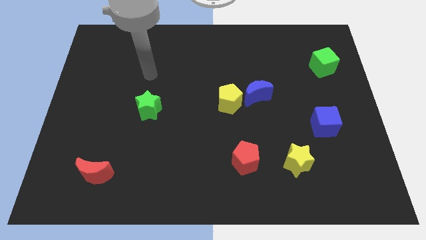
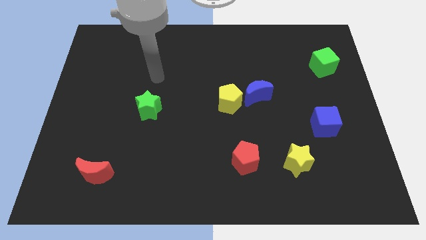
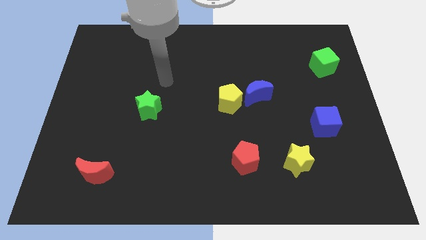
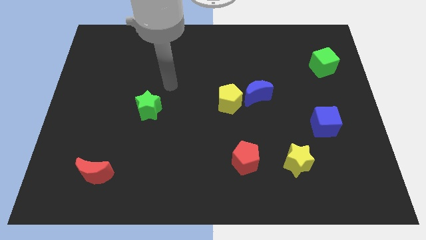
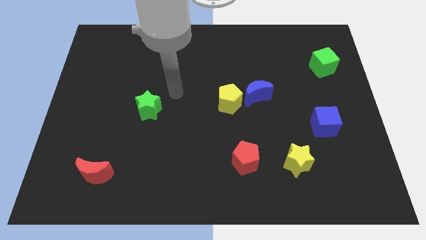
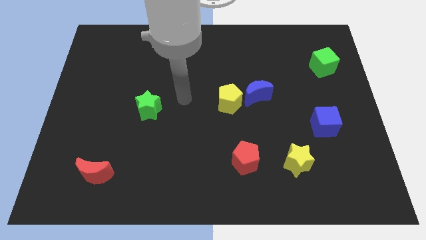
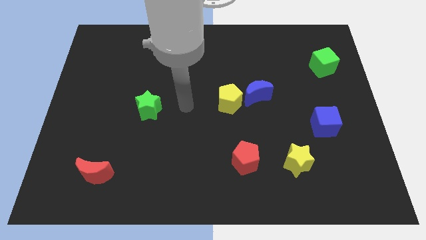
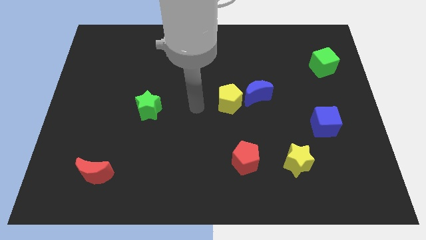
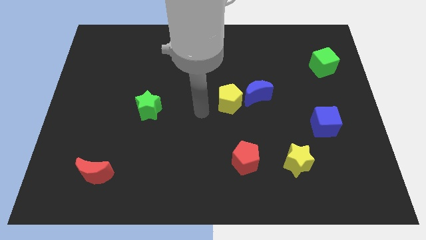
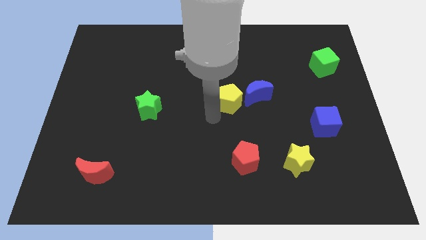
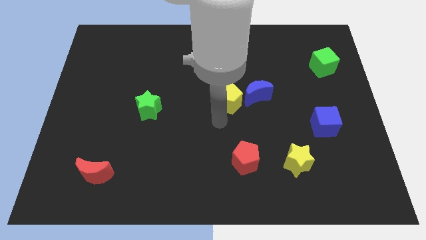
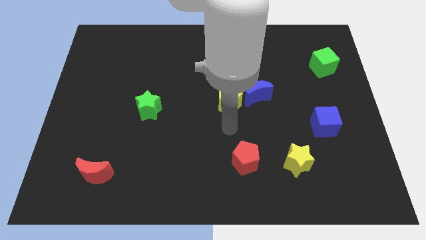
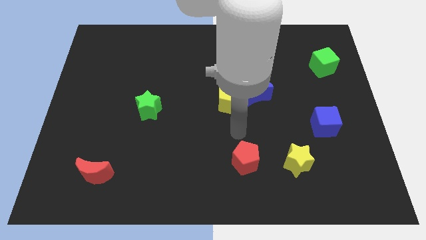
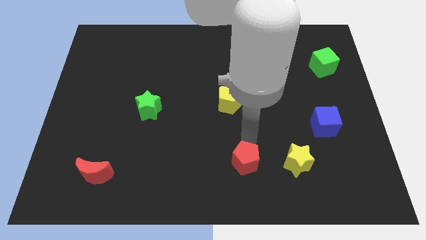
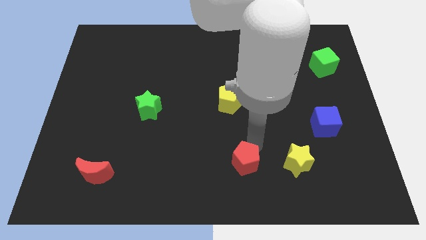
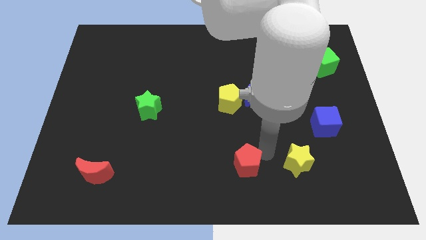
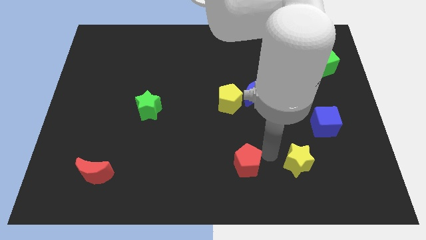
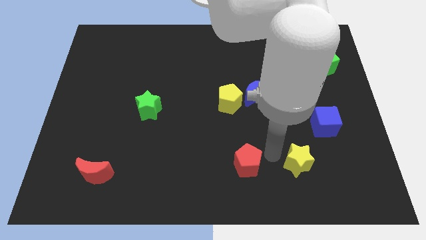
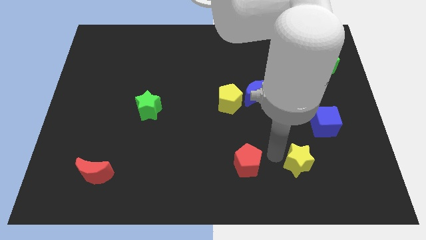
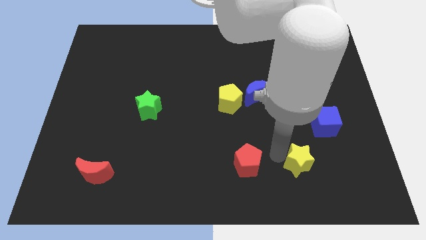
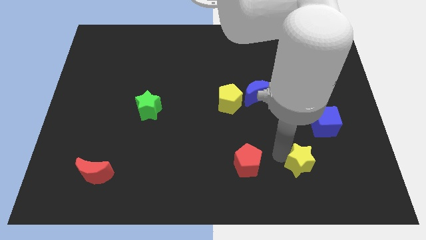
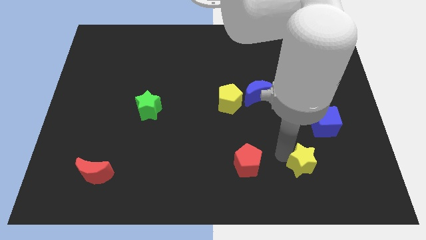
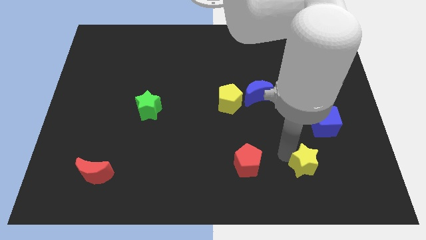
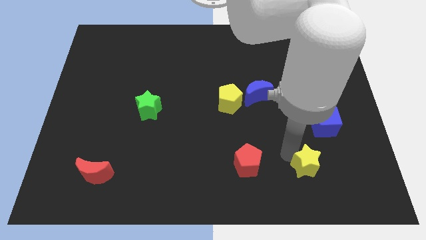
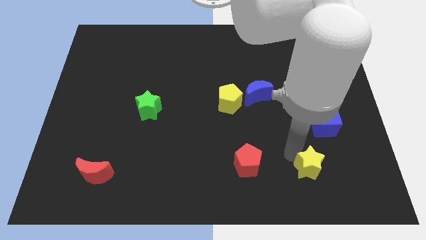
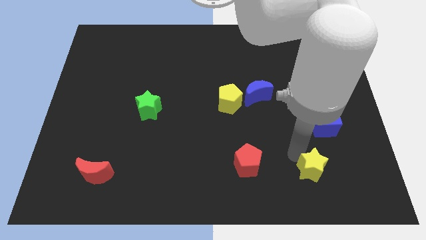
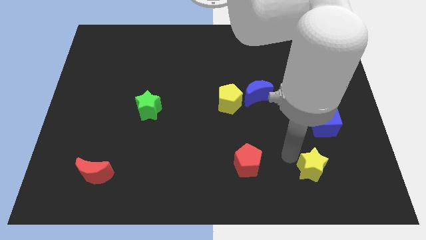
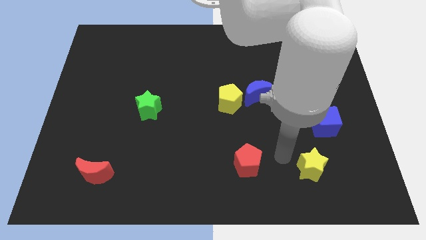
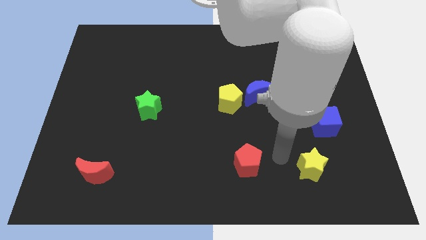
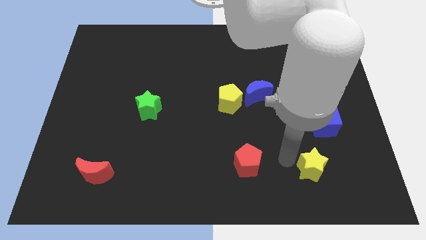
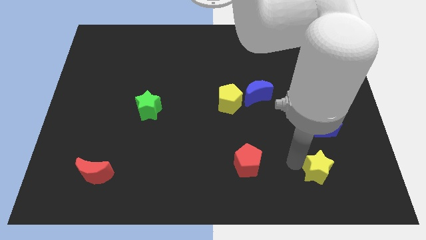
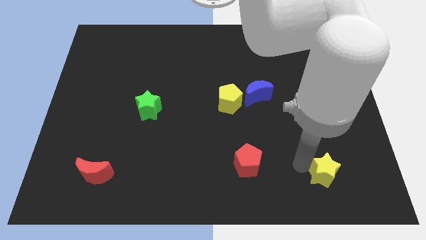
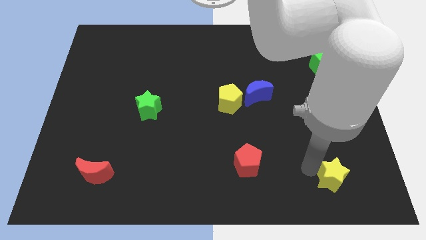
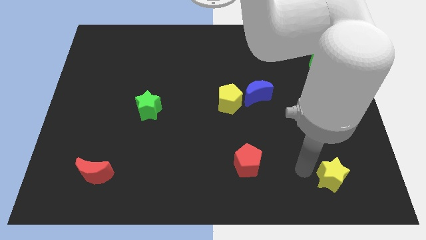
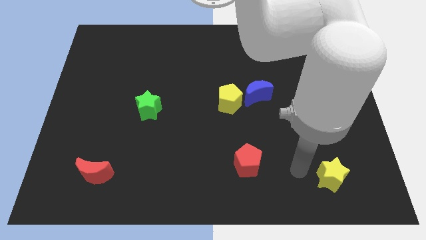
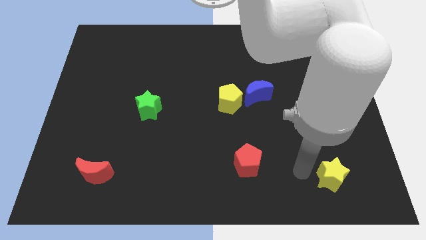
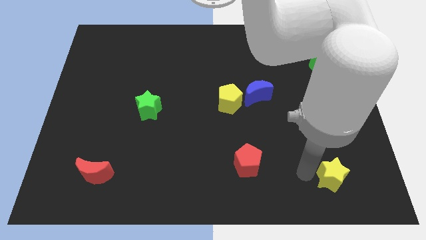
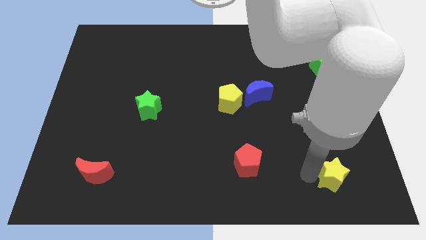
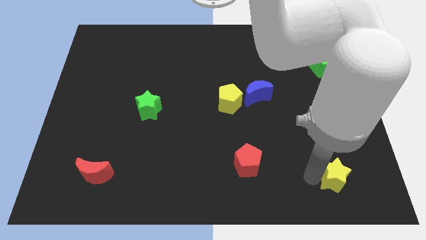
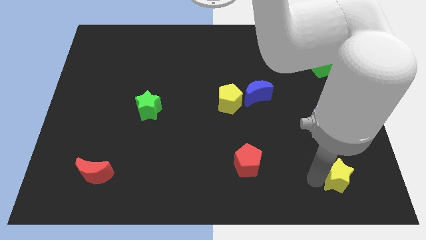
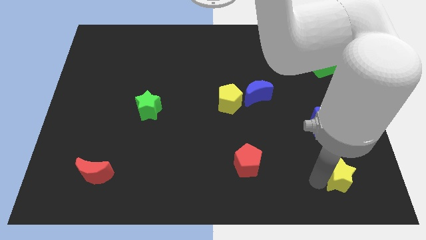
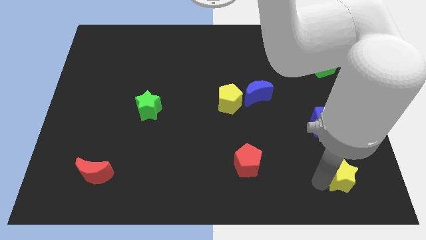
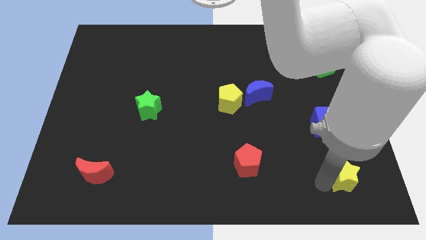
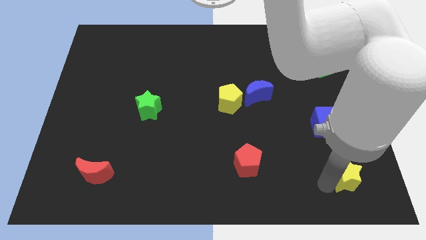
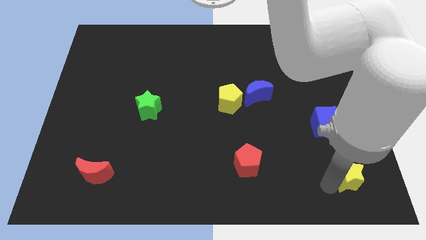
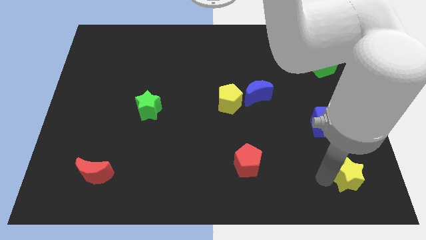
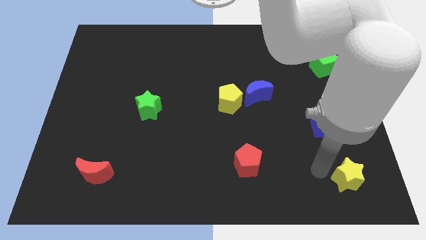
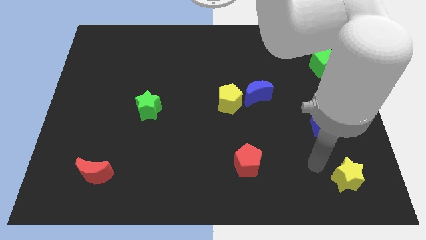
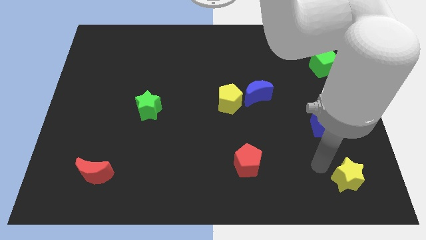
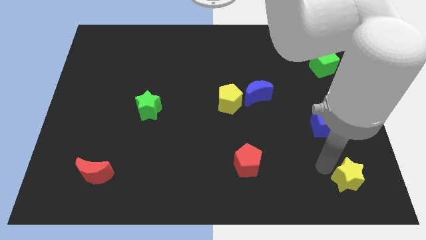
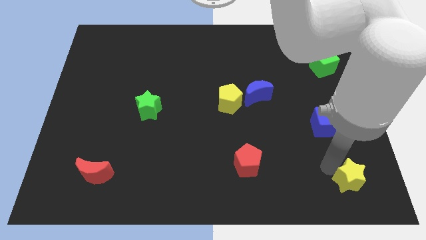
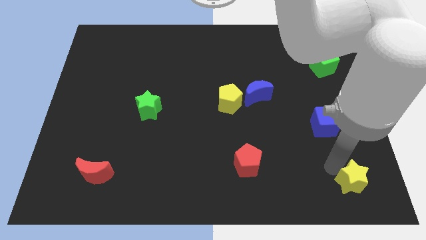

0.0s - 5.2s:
put the yellow star to the lower right corner

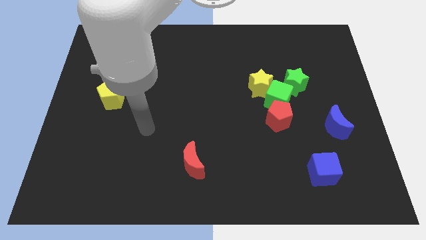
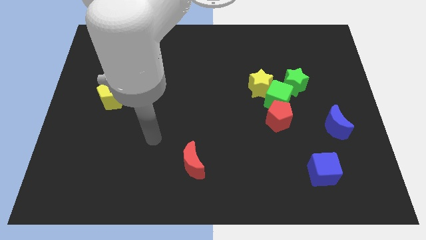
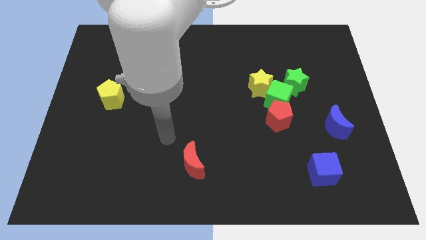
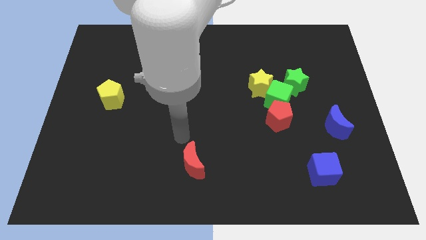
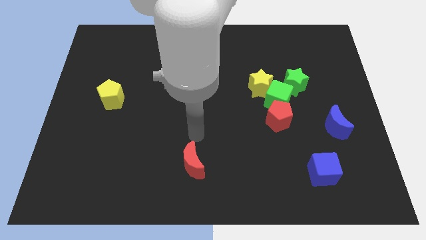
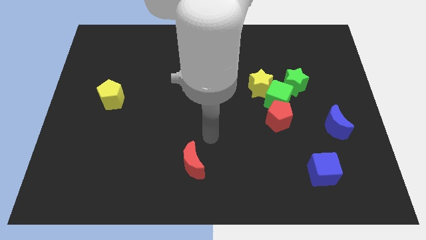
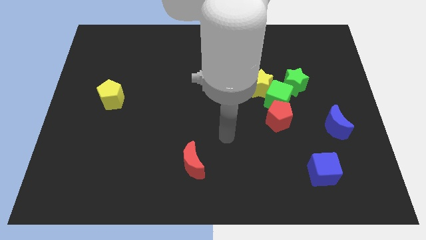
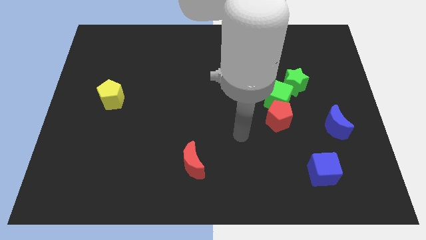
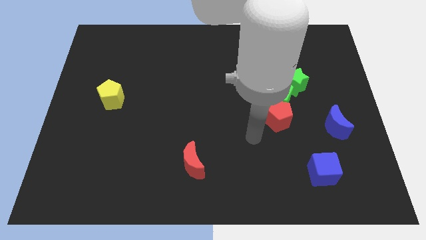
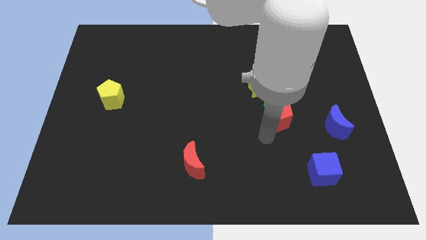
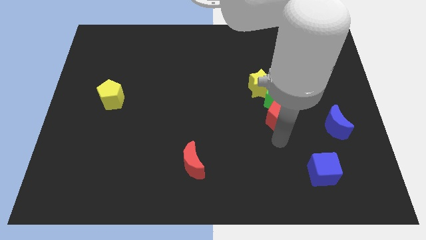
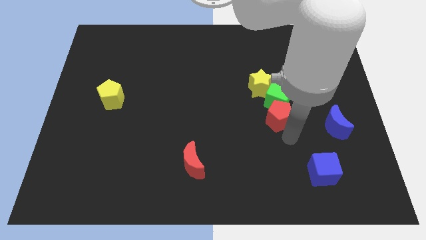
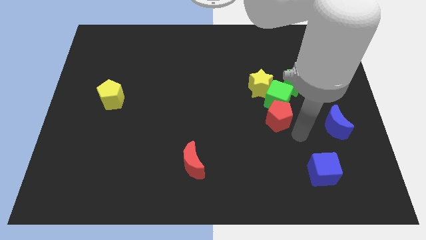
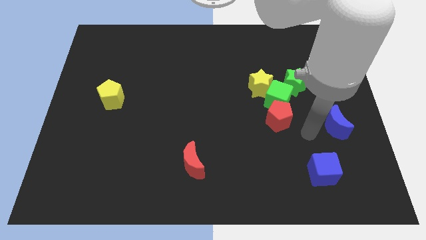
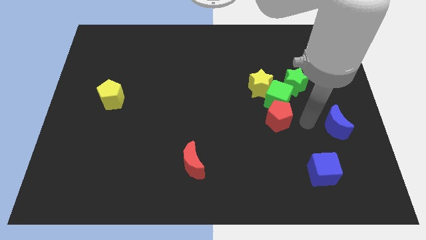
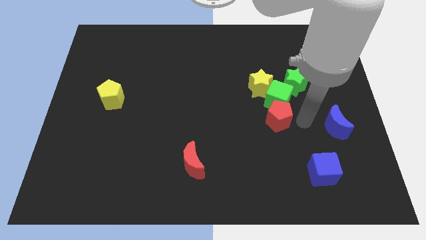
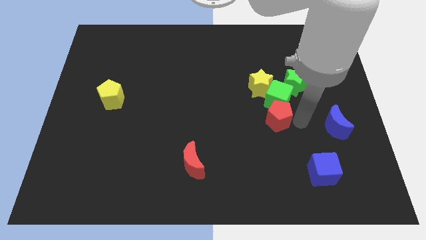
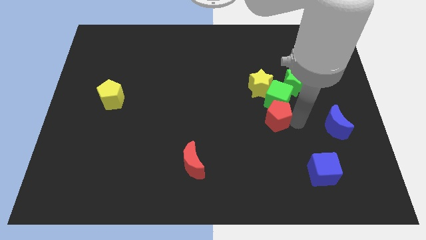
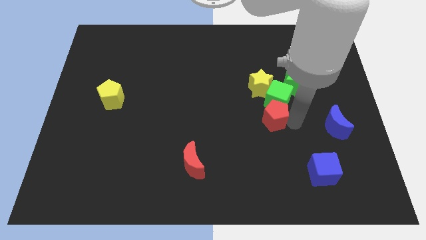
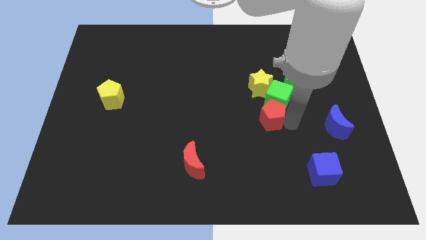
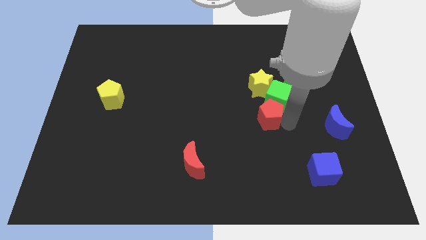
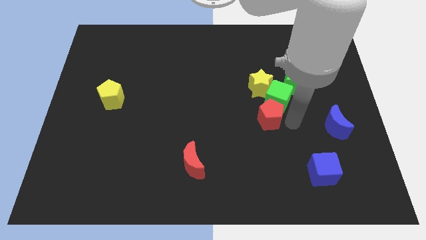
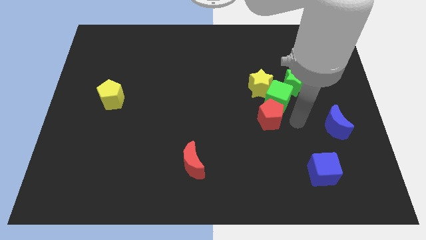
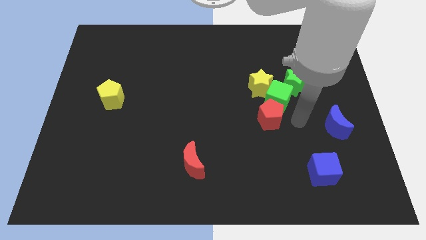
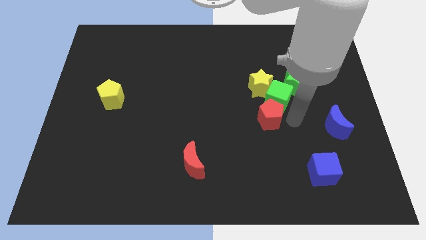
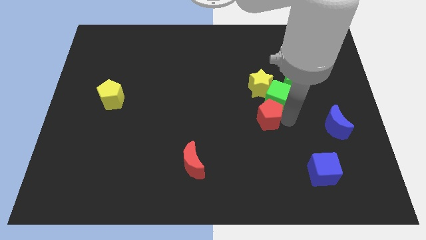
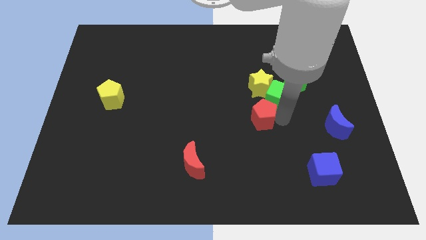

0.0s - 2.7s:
move the red pentagon to the center
